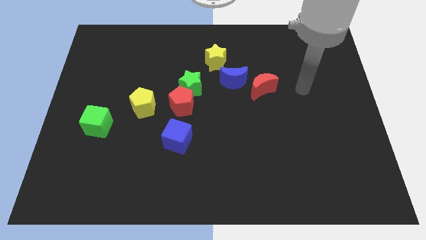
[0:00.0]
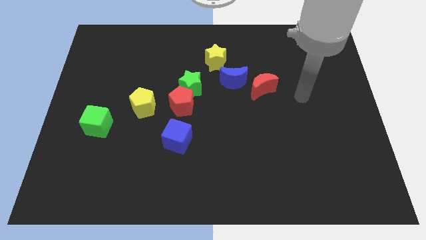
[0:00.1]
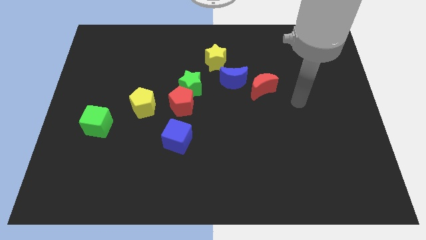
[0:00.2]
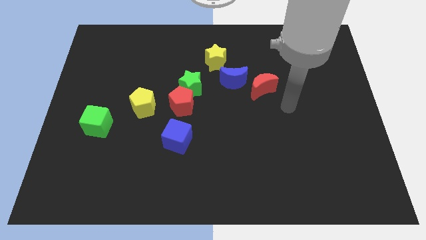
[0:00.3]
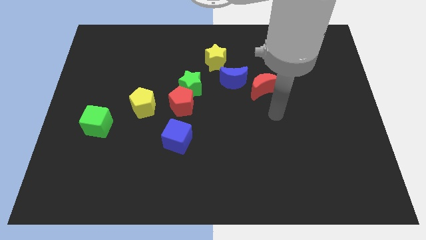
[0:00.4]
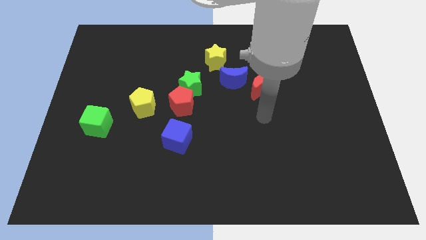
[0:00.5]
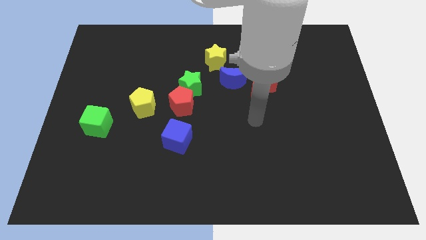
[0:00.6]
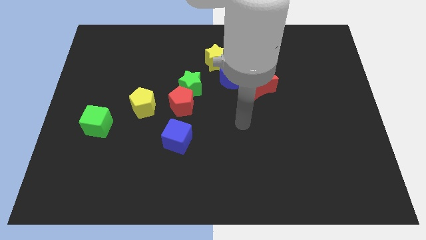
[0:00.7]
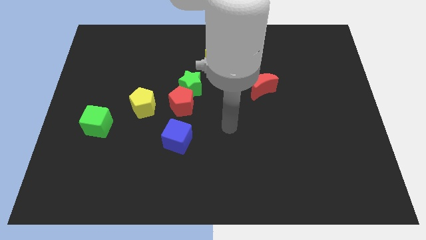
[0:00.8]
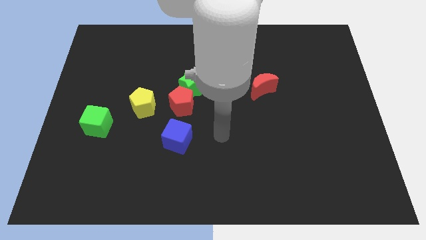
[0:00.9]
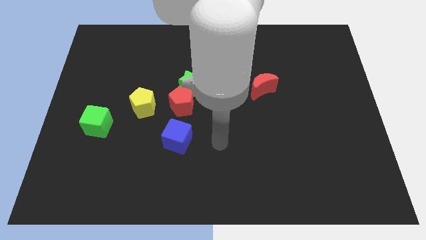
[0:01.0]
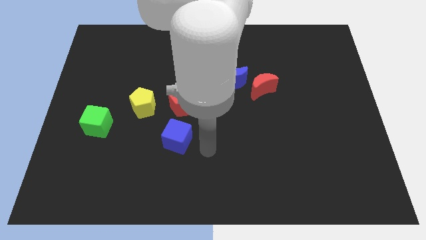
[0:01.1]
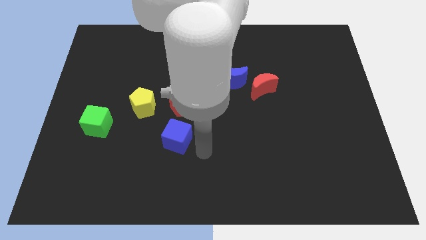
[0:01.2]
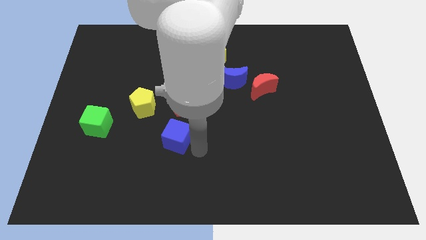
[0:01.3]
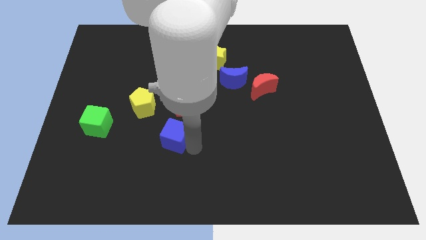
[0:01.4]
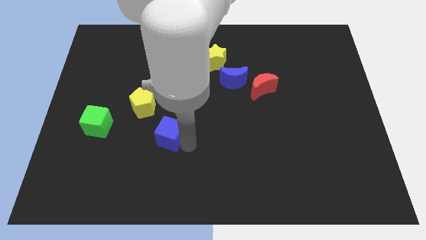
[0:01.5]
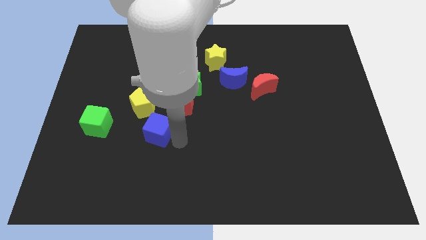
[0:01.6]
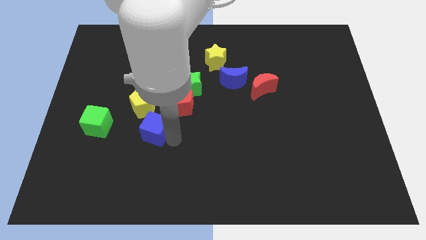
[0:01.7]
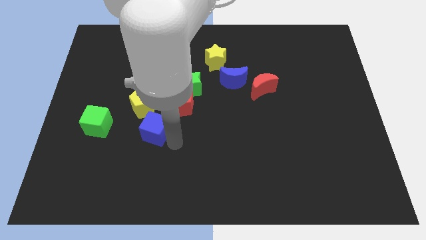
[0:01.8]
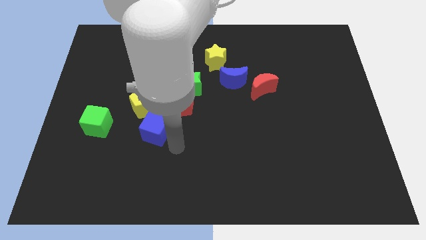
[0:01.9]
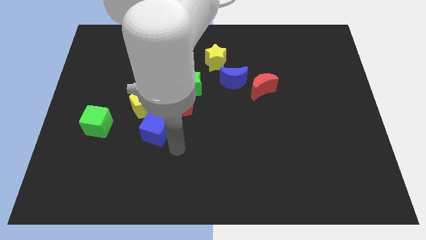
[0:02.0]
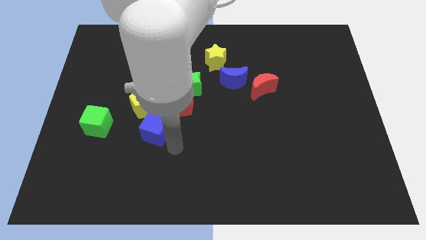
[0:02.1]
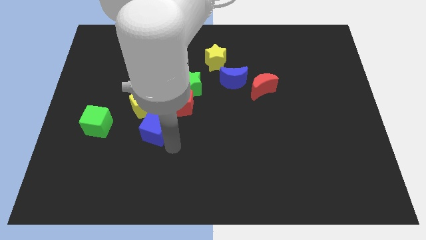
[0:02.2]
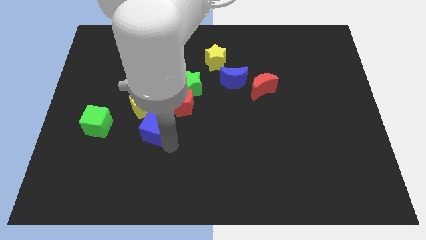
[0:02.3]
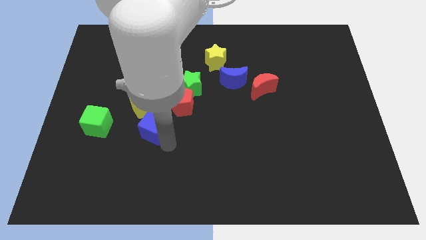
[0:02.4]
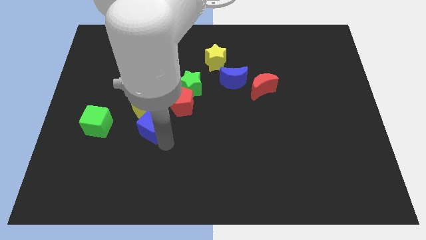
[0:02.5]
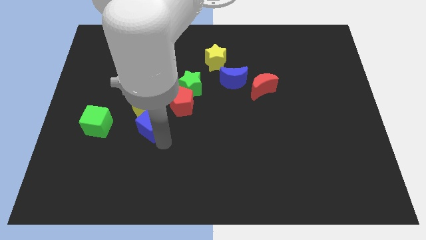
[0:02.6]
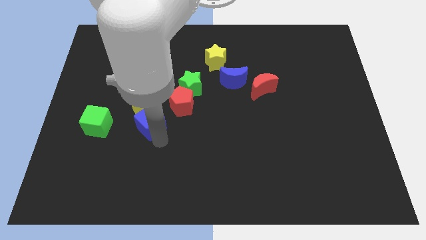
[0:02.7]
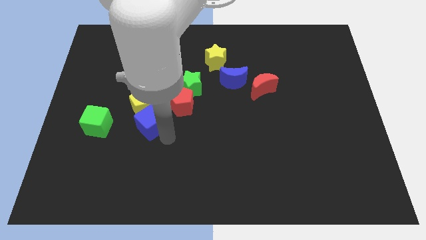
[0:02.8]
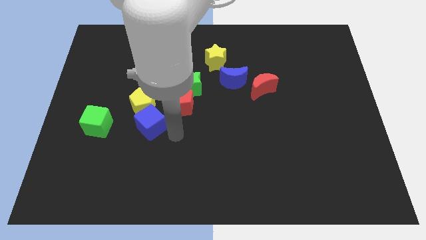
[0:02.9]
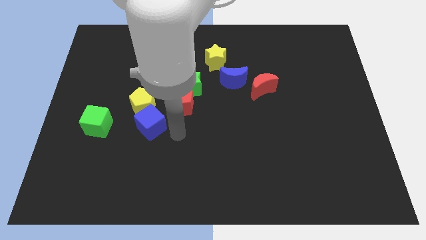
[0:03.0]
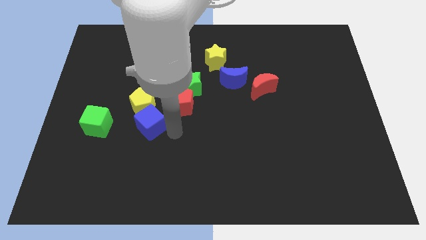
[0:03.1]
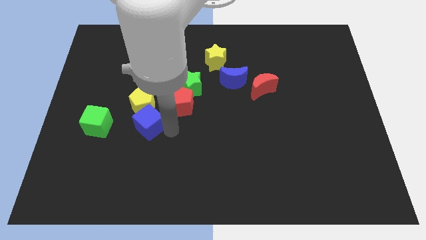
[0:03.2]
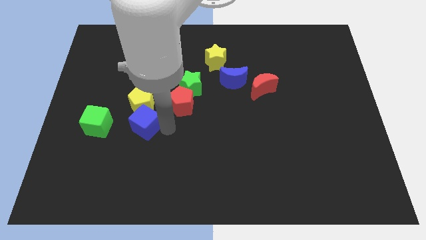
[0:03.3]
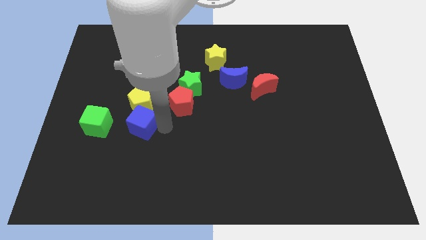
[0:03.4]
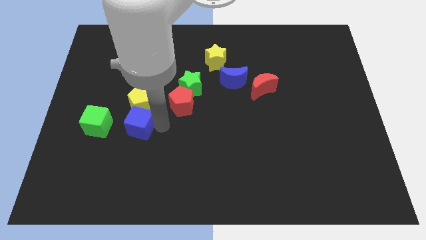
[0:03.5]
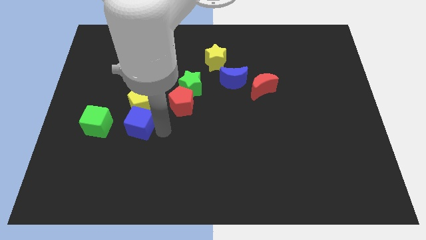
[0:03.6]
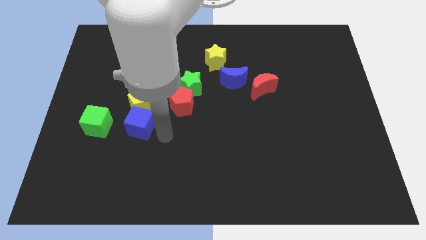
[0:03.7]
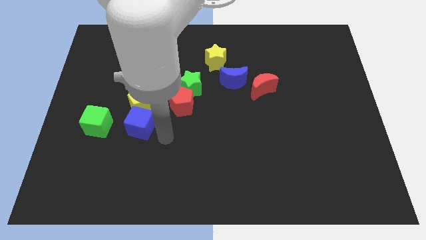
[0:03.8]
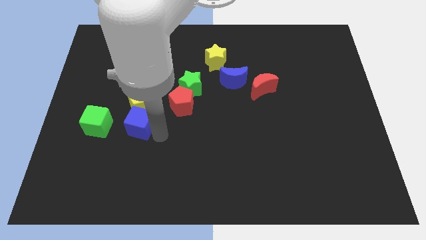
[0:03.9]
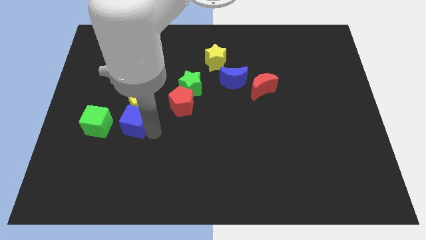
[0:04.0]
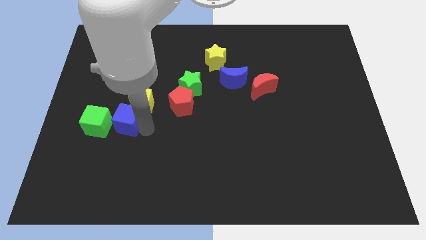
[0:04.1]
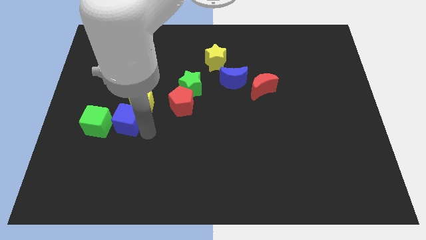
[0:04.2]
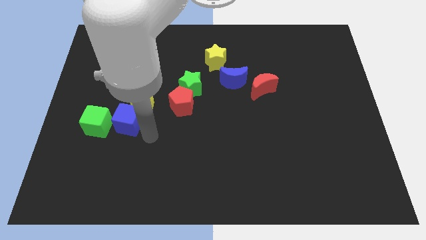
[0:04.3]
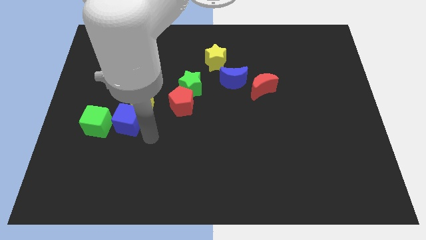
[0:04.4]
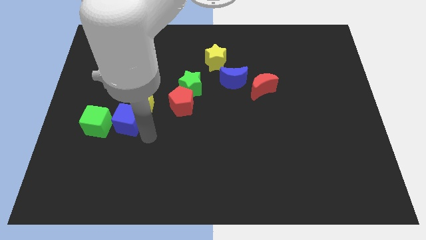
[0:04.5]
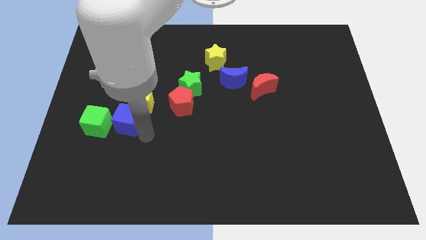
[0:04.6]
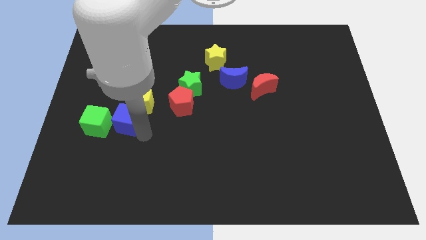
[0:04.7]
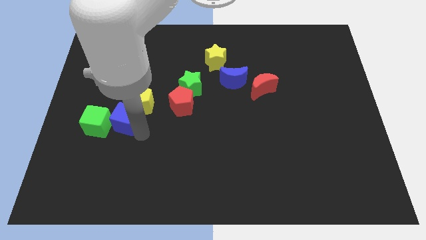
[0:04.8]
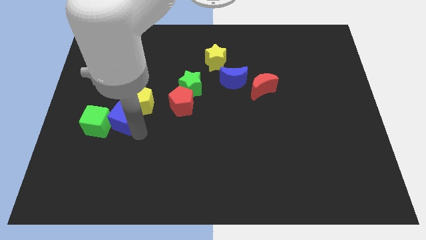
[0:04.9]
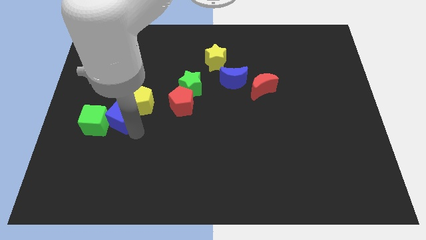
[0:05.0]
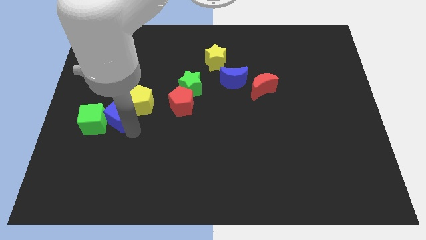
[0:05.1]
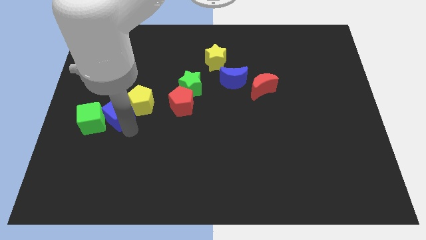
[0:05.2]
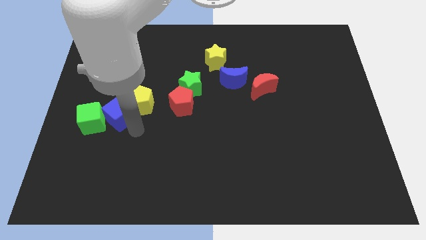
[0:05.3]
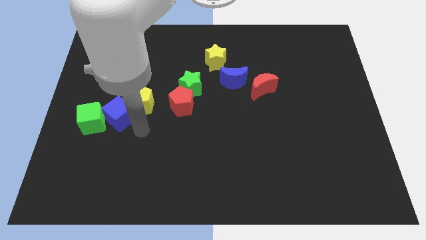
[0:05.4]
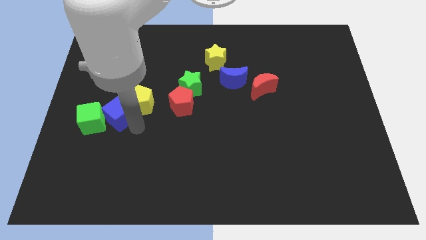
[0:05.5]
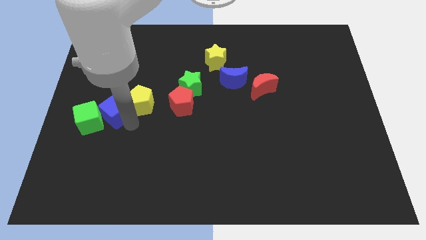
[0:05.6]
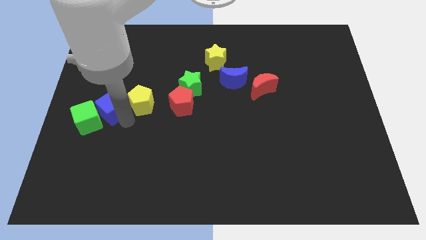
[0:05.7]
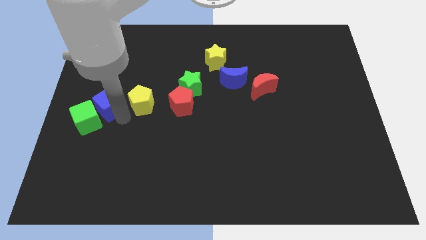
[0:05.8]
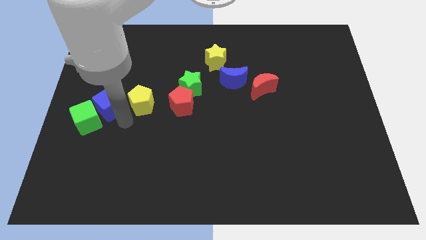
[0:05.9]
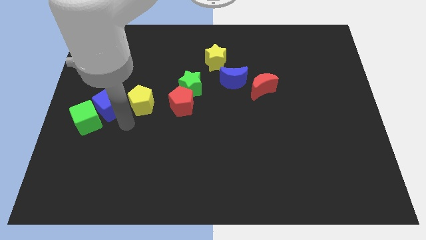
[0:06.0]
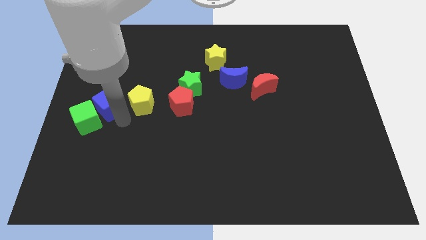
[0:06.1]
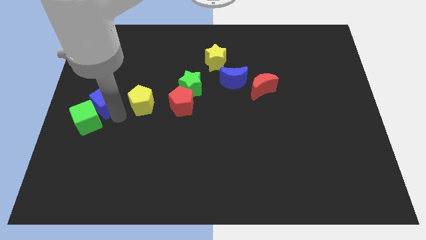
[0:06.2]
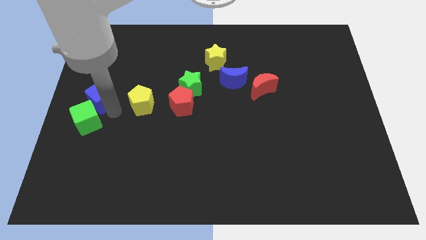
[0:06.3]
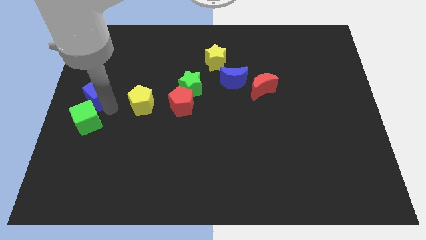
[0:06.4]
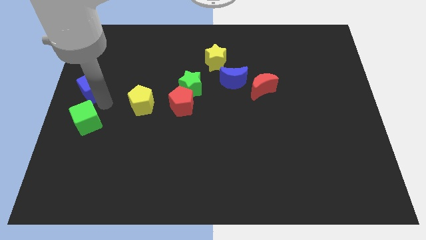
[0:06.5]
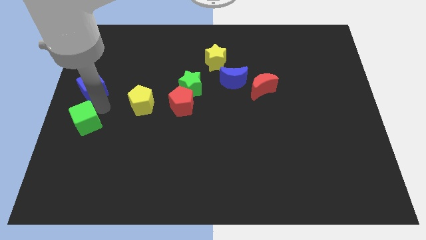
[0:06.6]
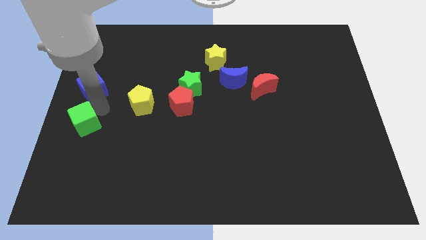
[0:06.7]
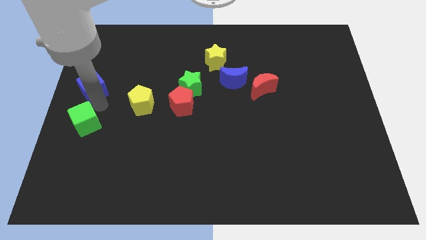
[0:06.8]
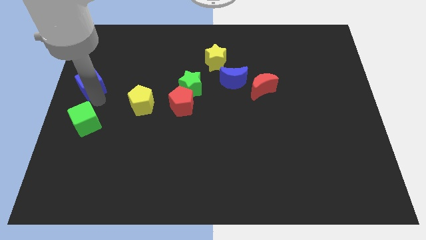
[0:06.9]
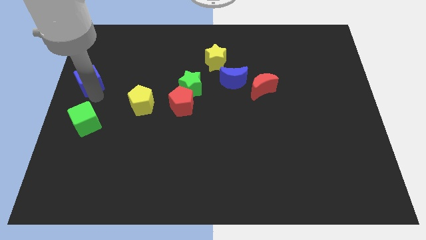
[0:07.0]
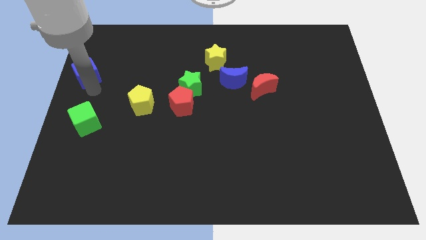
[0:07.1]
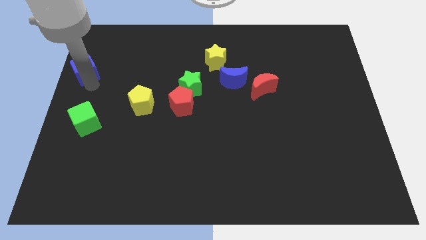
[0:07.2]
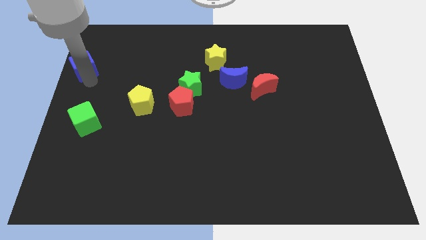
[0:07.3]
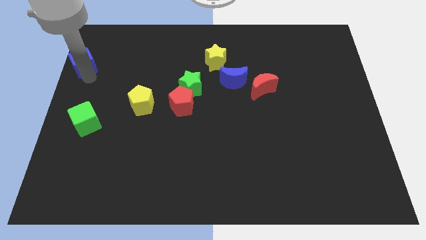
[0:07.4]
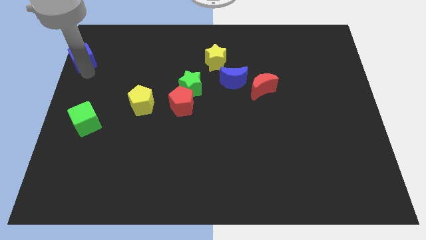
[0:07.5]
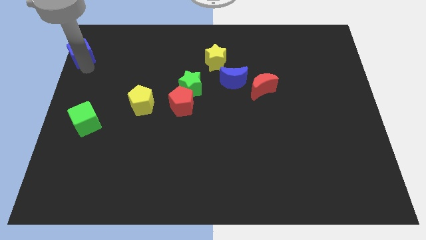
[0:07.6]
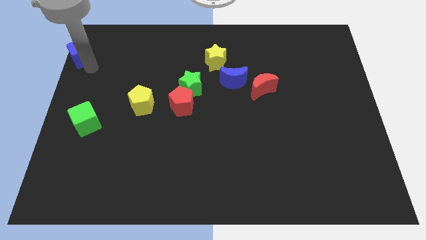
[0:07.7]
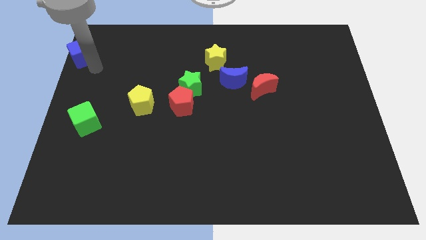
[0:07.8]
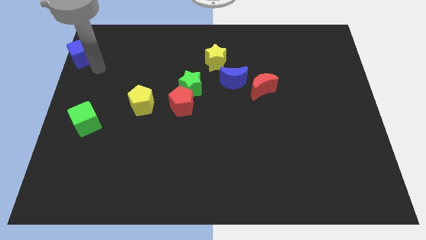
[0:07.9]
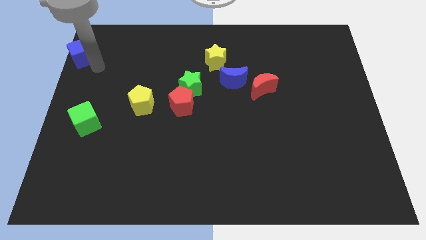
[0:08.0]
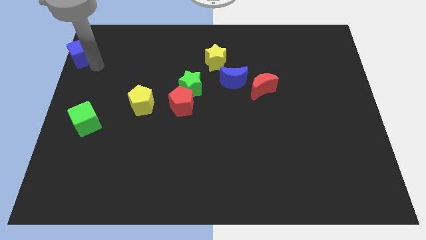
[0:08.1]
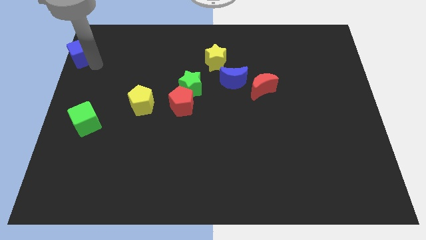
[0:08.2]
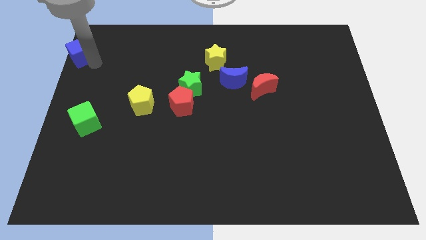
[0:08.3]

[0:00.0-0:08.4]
push the blue cube to the top left of the board
